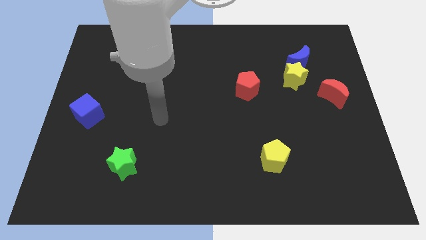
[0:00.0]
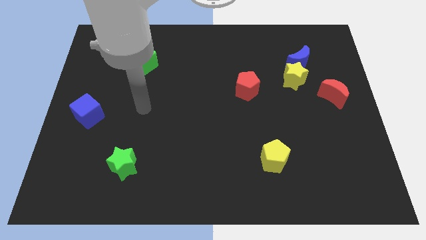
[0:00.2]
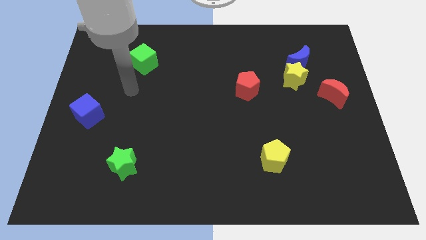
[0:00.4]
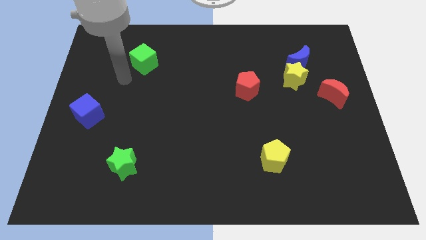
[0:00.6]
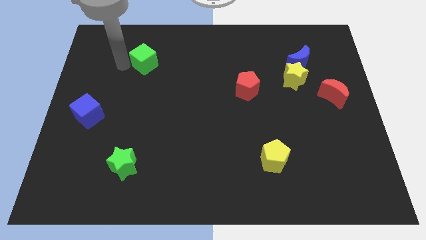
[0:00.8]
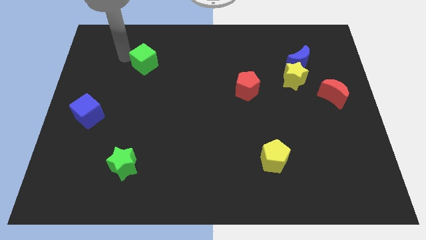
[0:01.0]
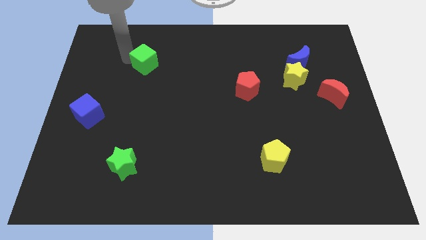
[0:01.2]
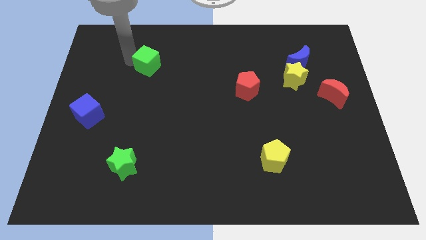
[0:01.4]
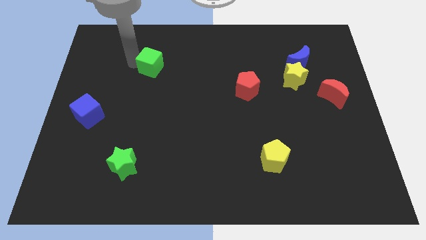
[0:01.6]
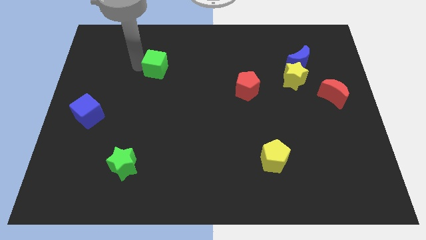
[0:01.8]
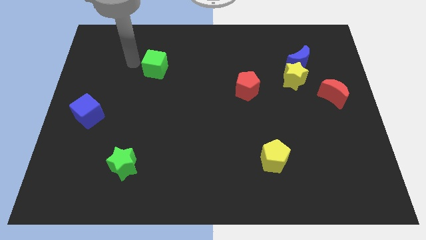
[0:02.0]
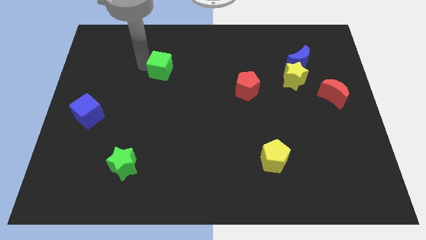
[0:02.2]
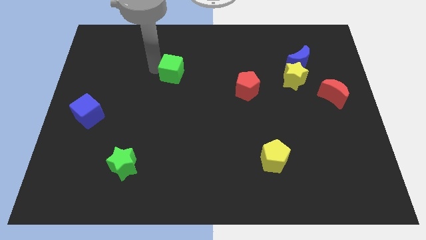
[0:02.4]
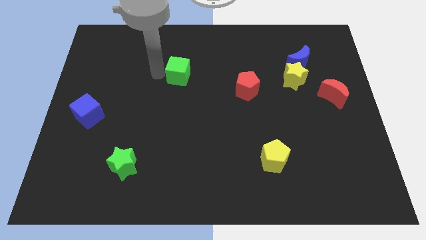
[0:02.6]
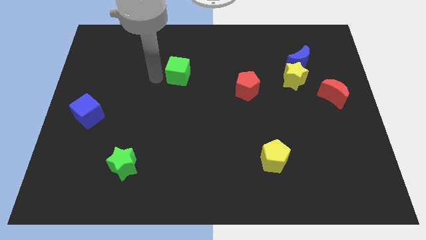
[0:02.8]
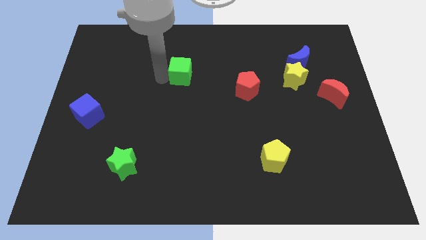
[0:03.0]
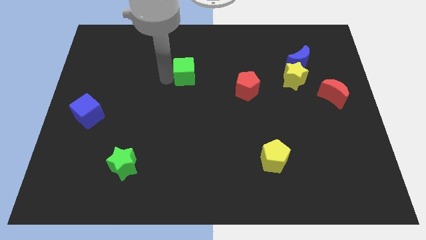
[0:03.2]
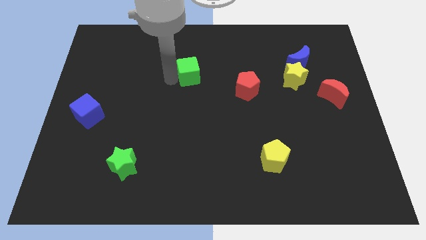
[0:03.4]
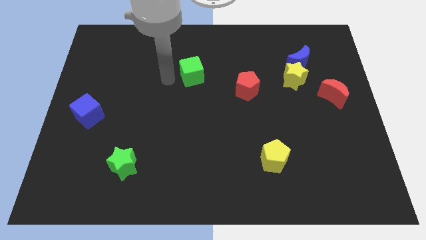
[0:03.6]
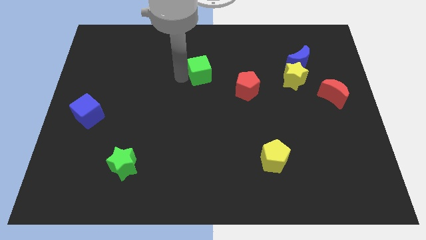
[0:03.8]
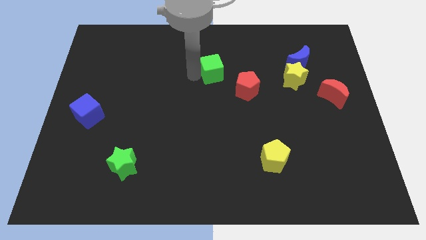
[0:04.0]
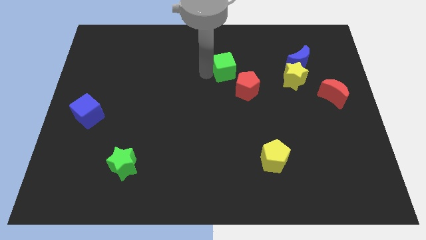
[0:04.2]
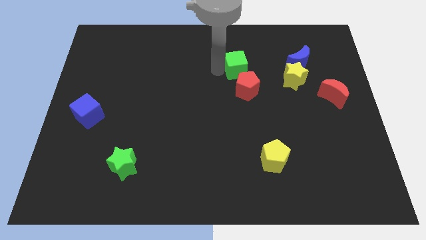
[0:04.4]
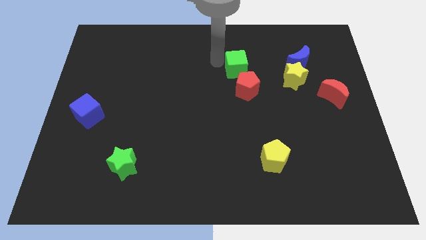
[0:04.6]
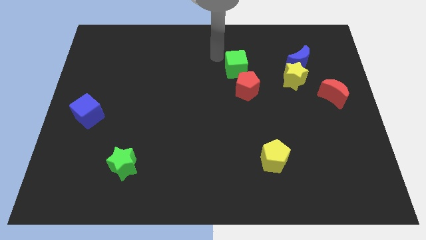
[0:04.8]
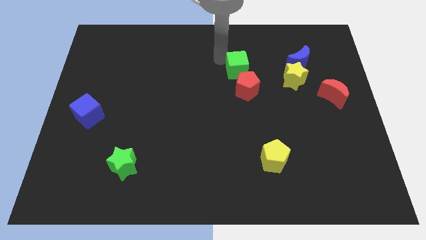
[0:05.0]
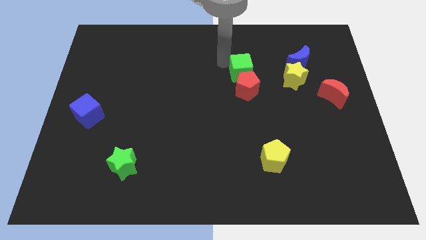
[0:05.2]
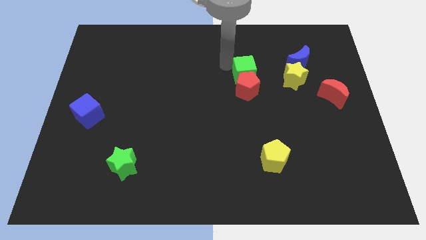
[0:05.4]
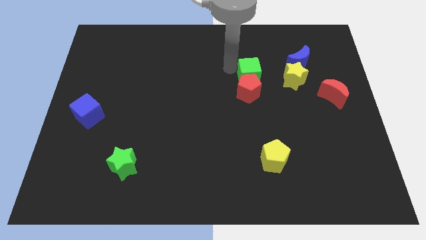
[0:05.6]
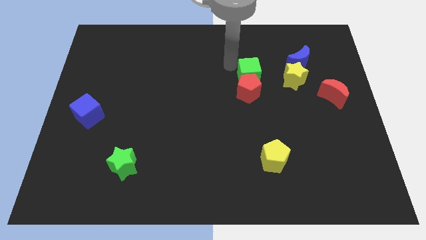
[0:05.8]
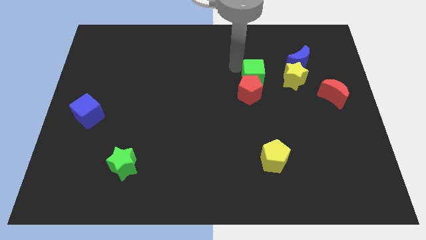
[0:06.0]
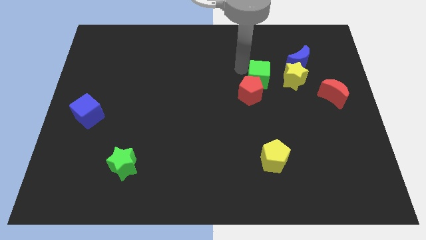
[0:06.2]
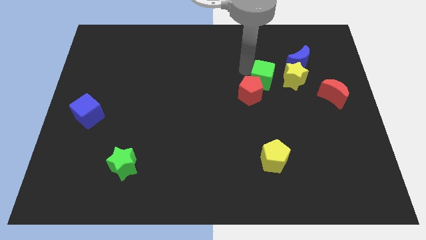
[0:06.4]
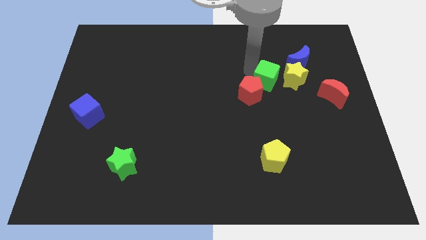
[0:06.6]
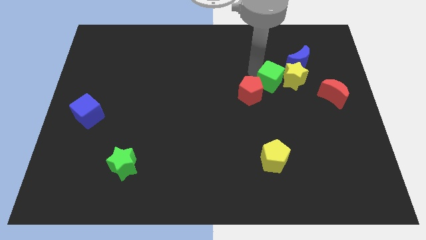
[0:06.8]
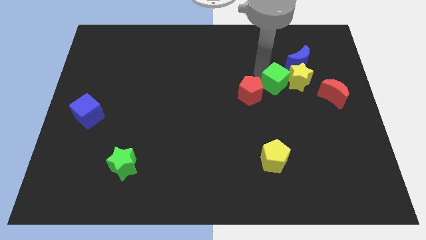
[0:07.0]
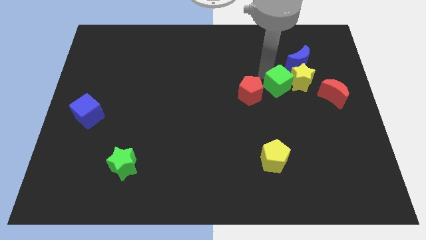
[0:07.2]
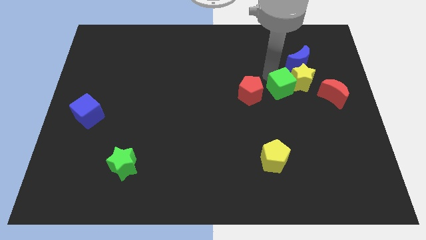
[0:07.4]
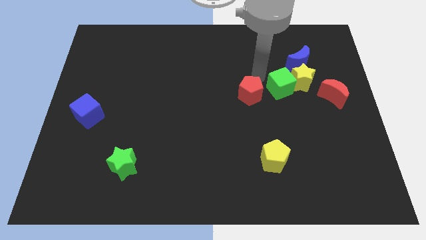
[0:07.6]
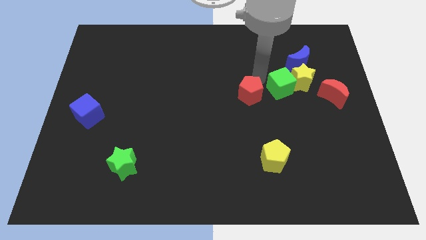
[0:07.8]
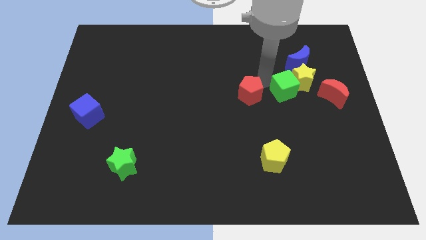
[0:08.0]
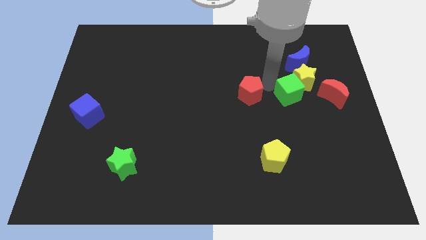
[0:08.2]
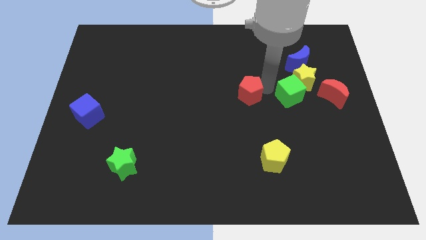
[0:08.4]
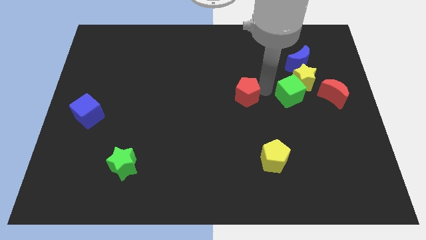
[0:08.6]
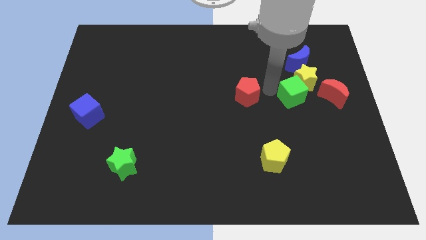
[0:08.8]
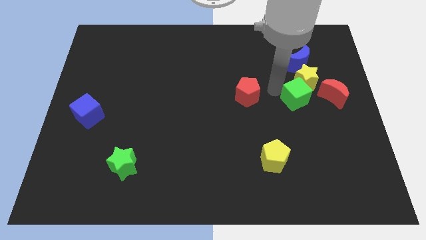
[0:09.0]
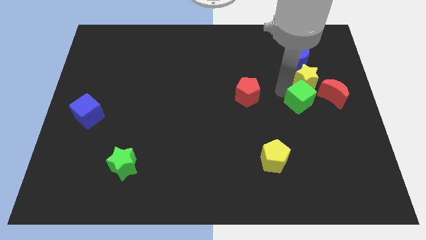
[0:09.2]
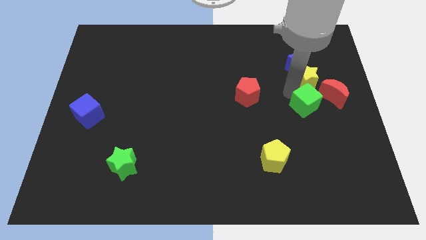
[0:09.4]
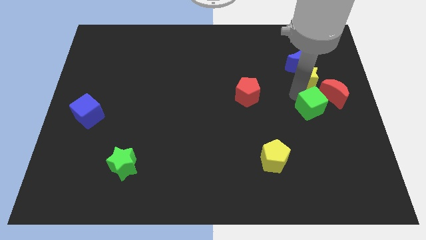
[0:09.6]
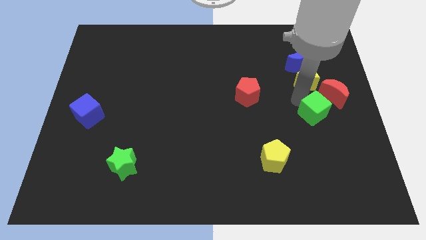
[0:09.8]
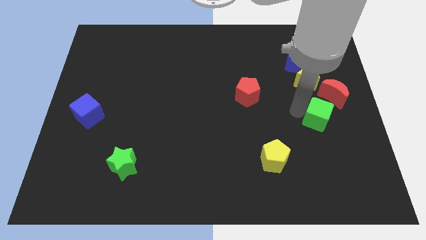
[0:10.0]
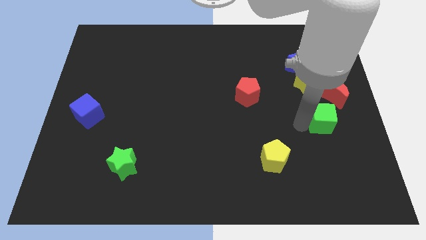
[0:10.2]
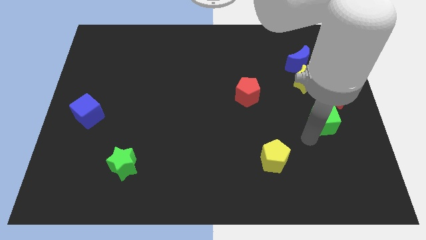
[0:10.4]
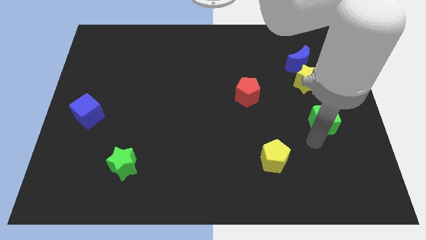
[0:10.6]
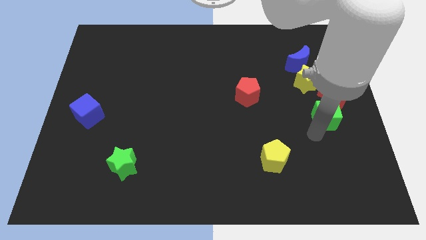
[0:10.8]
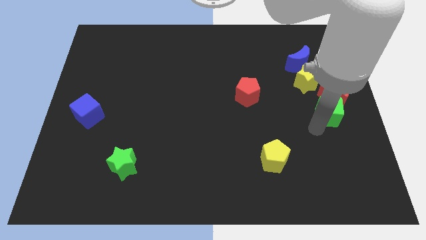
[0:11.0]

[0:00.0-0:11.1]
move the green cube close to the red moon

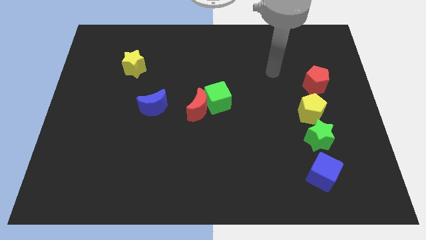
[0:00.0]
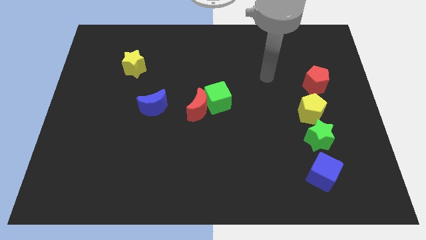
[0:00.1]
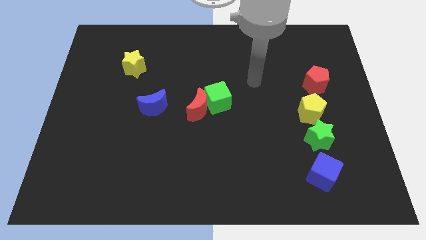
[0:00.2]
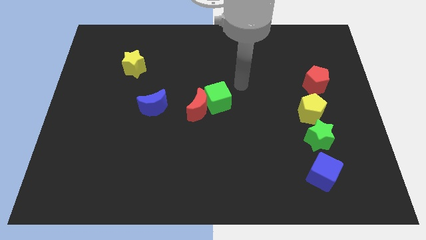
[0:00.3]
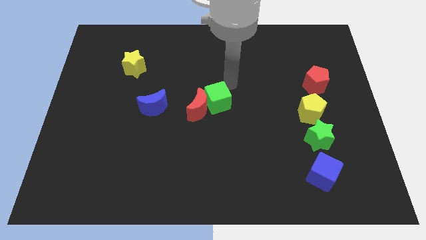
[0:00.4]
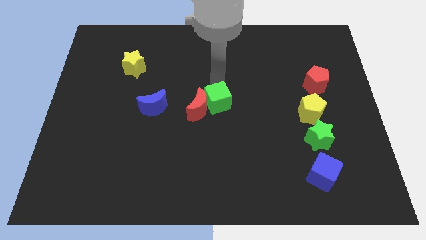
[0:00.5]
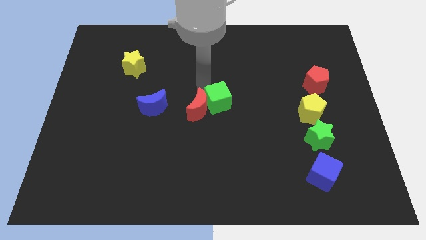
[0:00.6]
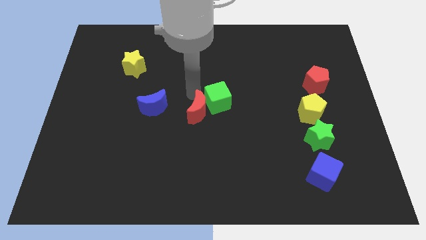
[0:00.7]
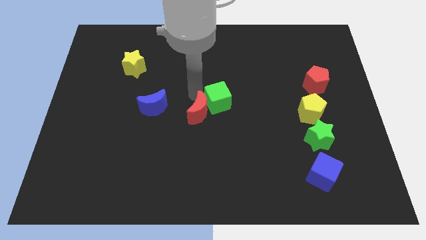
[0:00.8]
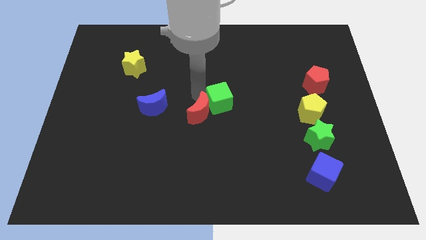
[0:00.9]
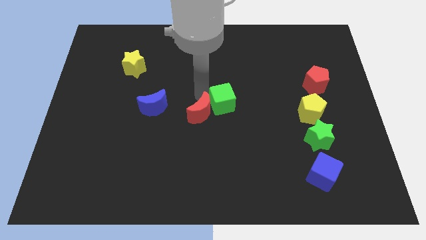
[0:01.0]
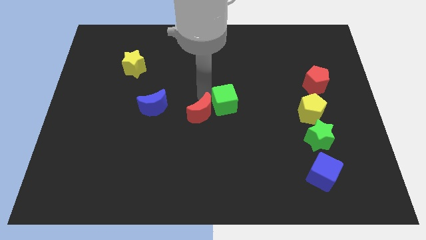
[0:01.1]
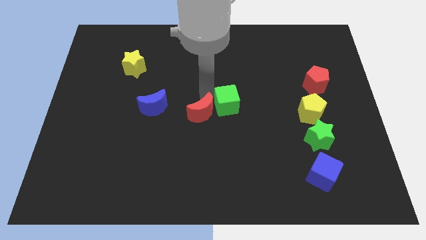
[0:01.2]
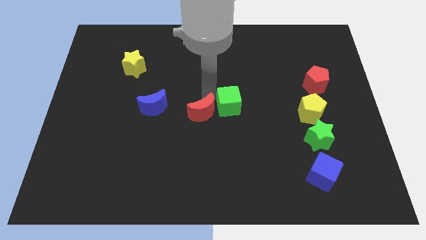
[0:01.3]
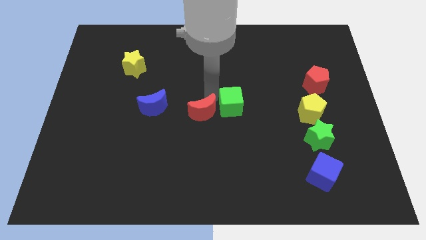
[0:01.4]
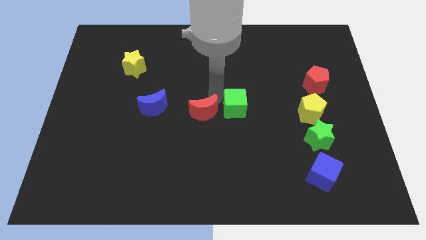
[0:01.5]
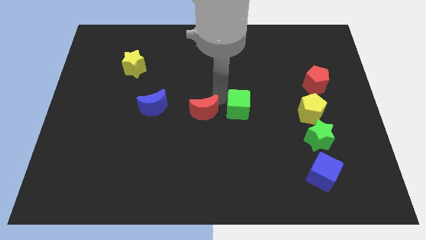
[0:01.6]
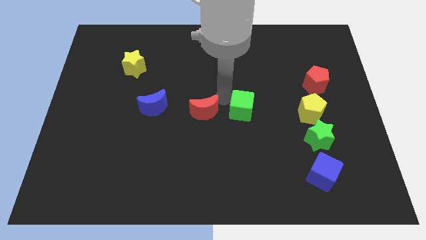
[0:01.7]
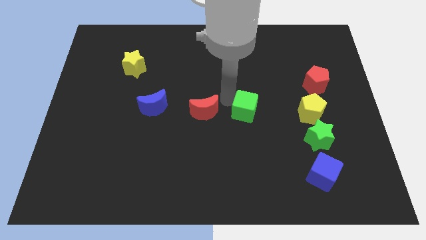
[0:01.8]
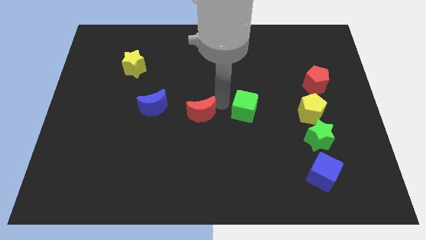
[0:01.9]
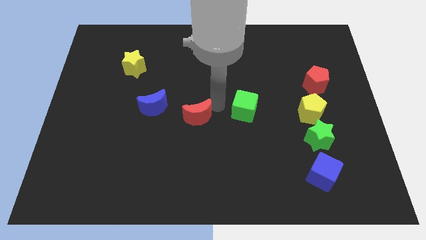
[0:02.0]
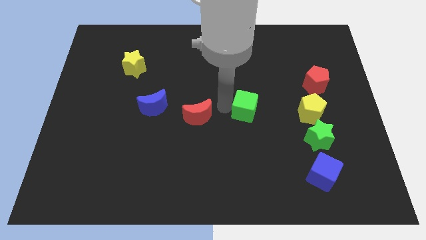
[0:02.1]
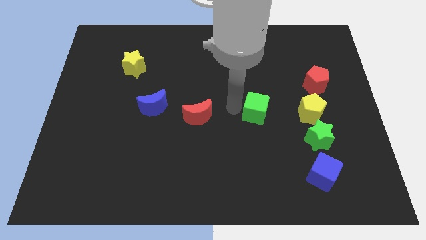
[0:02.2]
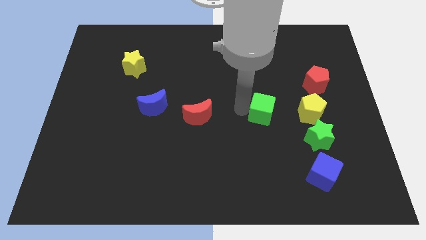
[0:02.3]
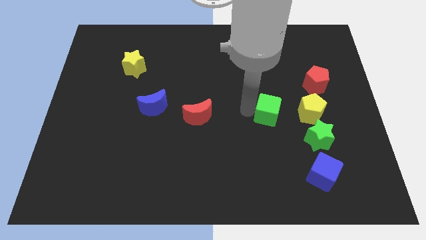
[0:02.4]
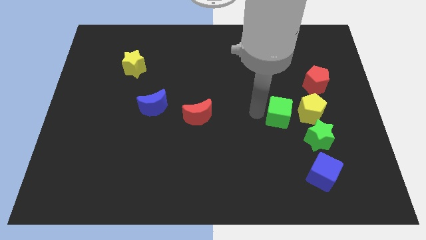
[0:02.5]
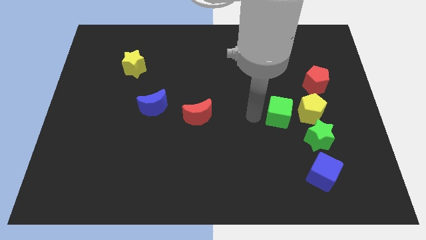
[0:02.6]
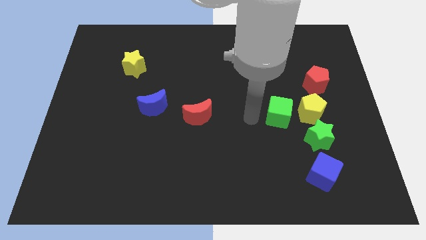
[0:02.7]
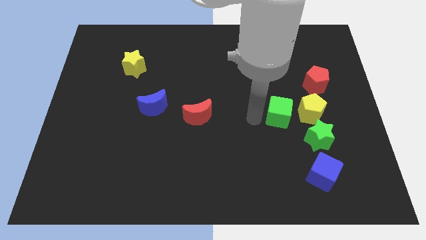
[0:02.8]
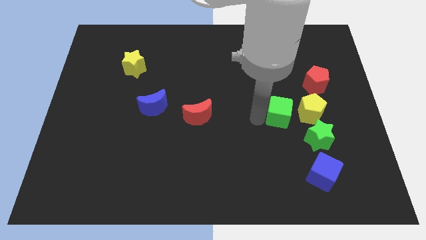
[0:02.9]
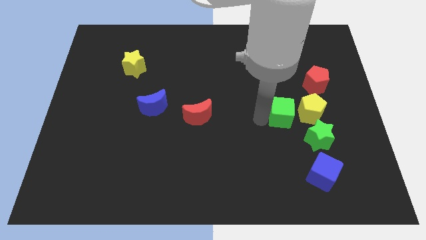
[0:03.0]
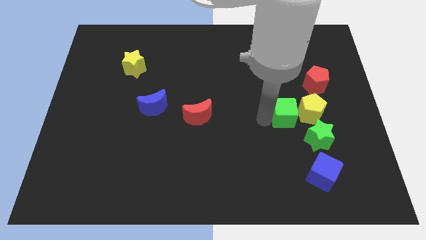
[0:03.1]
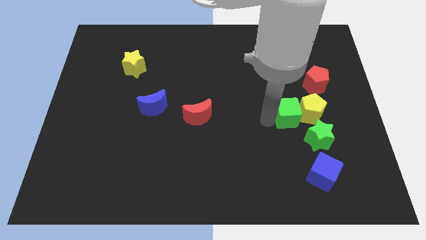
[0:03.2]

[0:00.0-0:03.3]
slide the green cube close to the yellow pentagon
